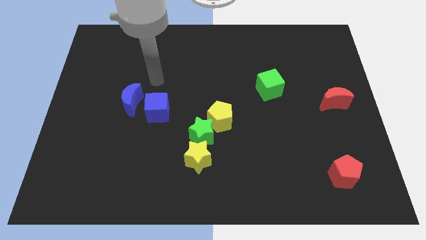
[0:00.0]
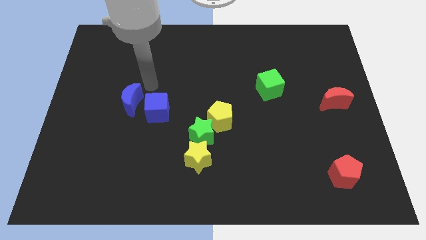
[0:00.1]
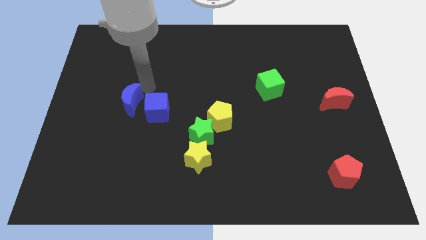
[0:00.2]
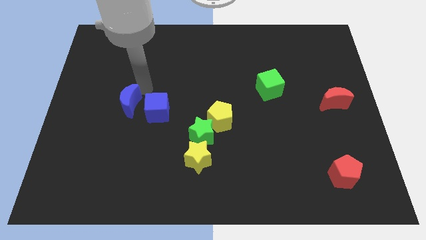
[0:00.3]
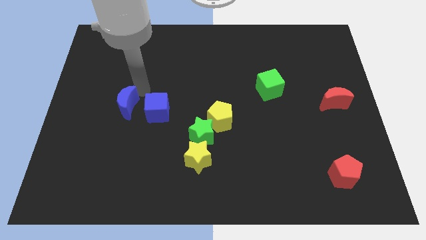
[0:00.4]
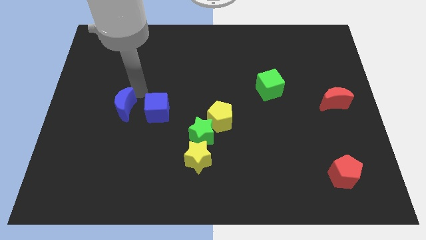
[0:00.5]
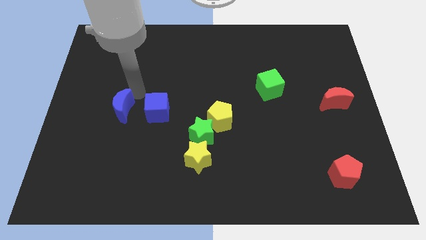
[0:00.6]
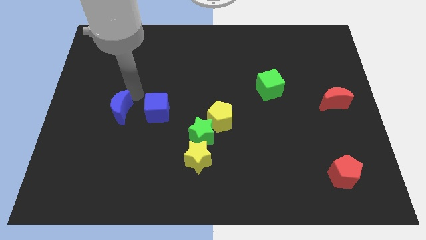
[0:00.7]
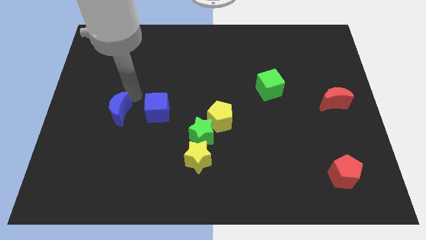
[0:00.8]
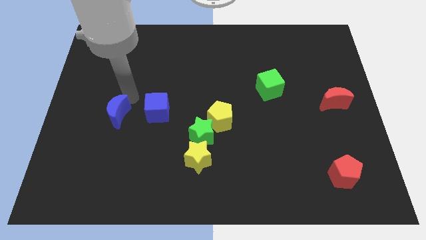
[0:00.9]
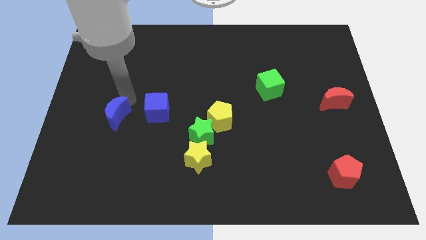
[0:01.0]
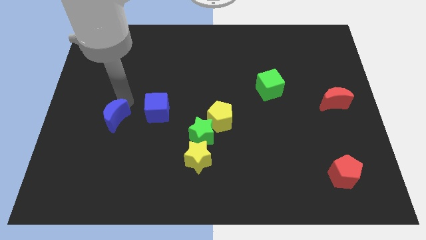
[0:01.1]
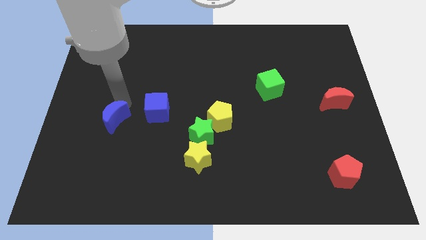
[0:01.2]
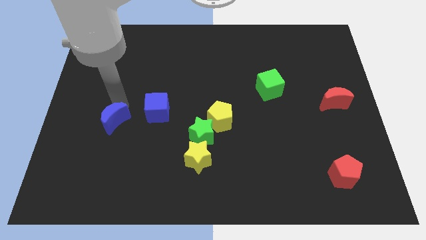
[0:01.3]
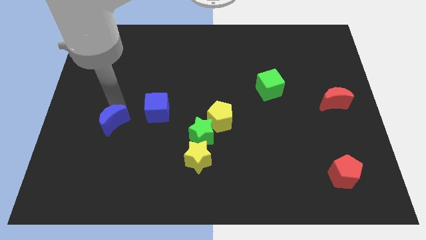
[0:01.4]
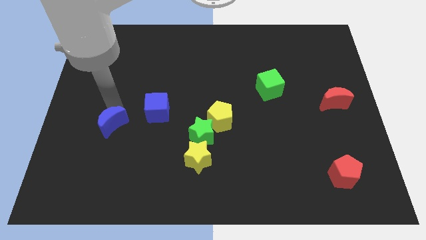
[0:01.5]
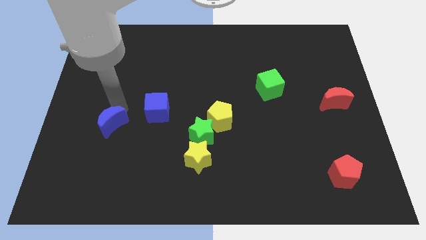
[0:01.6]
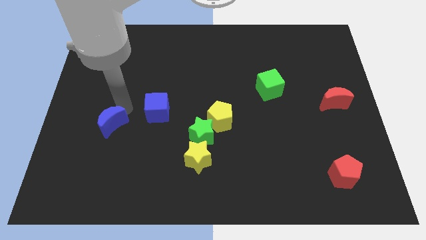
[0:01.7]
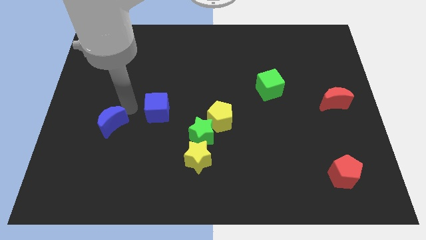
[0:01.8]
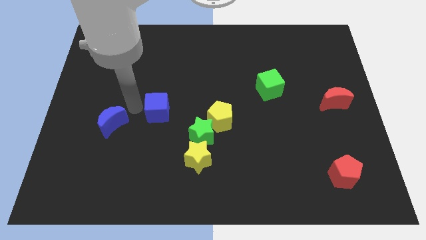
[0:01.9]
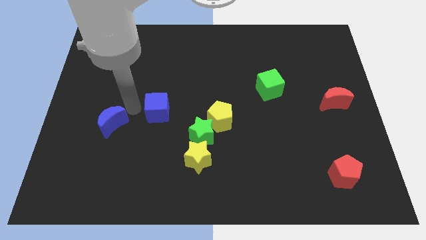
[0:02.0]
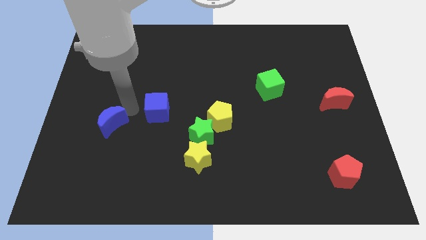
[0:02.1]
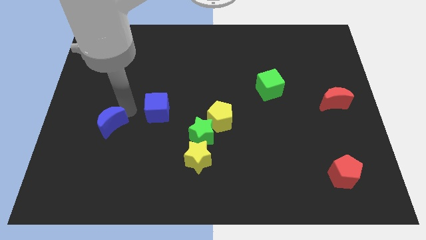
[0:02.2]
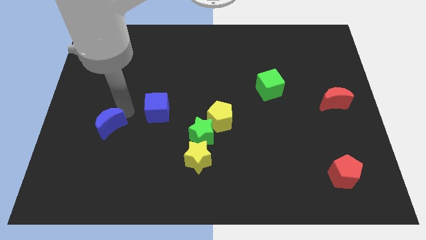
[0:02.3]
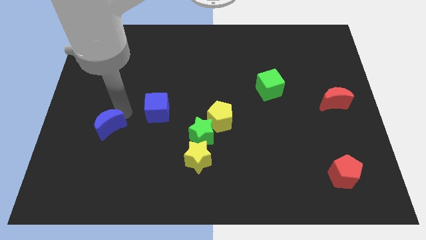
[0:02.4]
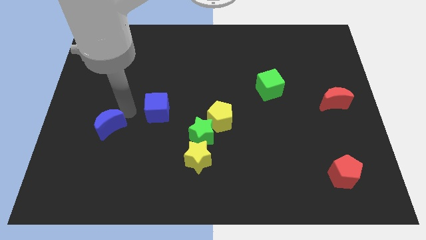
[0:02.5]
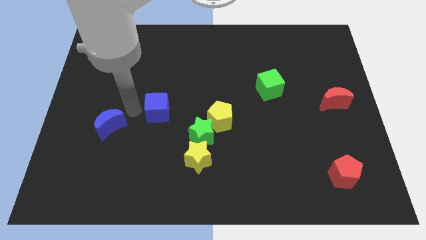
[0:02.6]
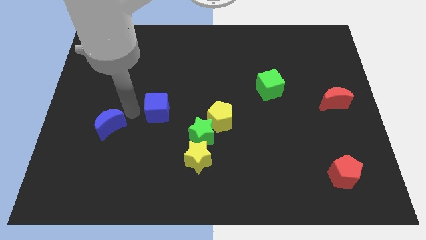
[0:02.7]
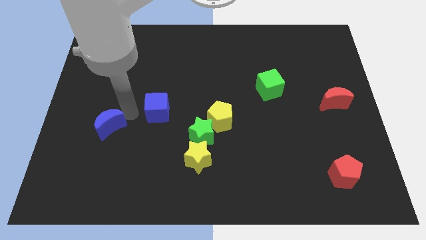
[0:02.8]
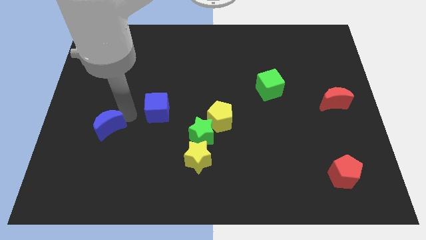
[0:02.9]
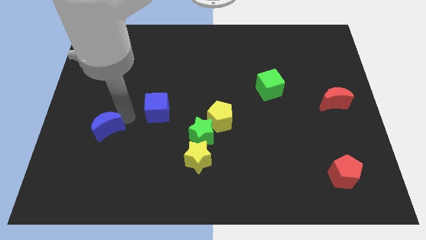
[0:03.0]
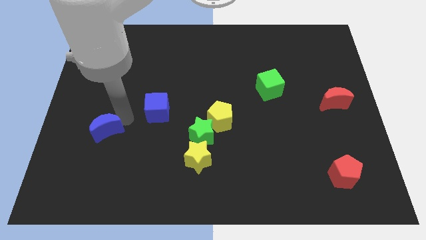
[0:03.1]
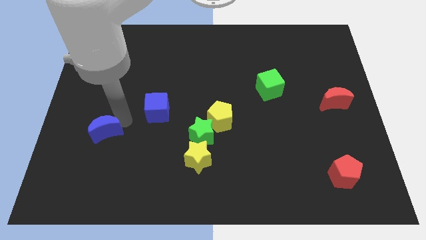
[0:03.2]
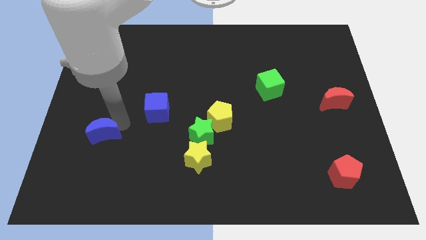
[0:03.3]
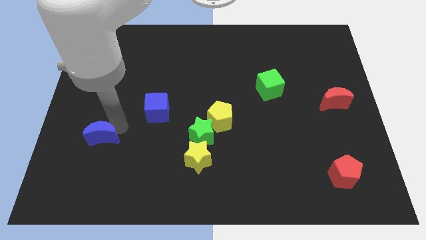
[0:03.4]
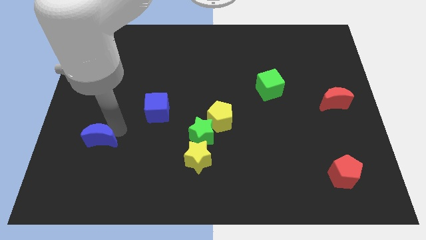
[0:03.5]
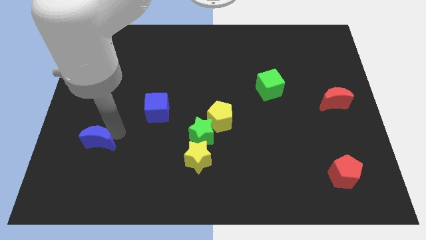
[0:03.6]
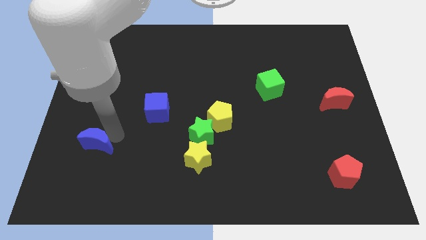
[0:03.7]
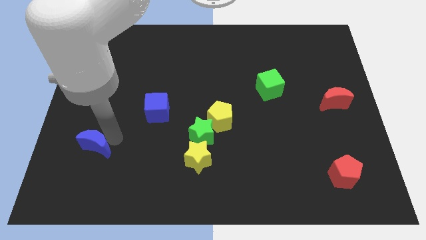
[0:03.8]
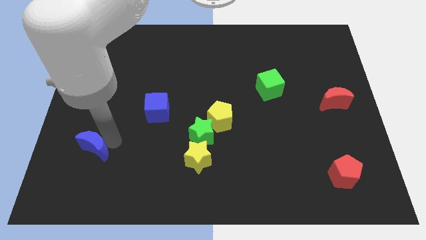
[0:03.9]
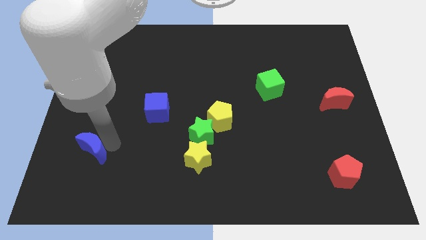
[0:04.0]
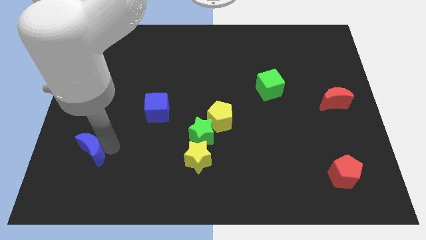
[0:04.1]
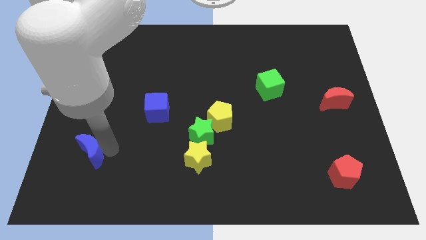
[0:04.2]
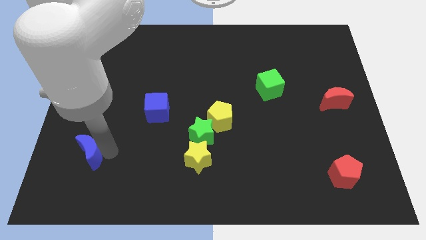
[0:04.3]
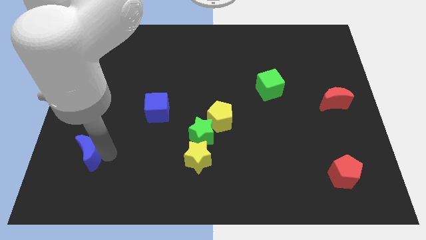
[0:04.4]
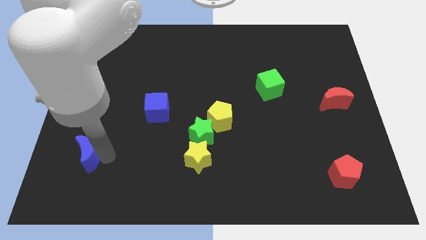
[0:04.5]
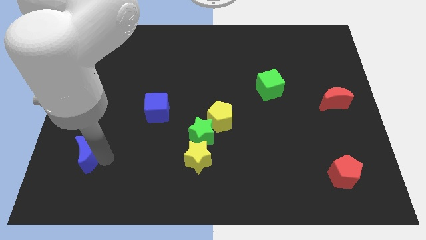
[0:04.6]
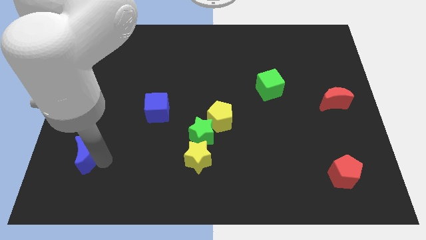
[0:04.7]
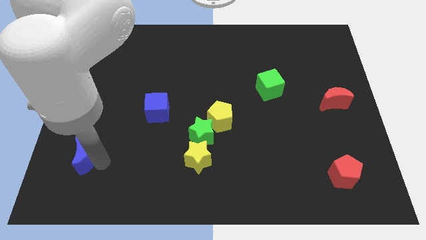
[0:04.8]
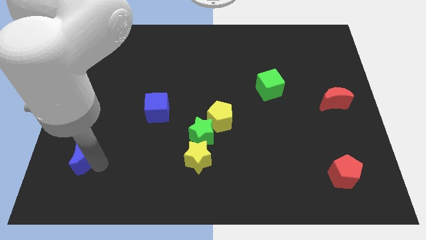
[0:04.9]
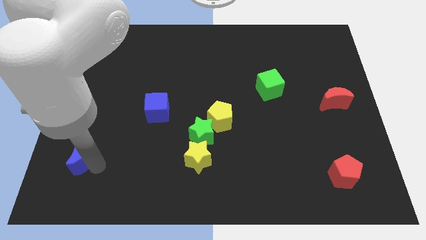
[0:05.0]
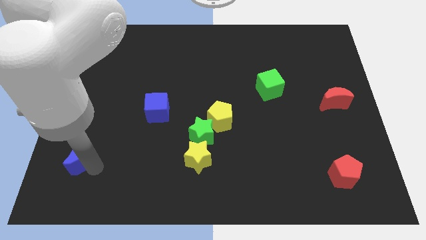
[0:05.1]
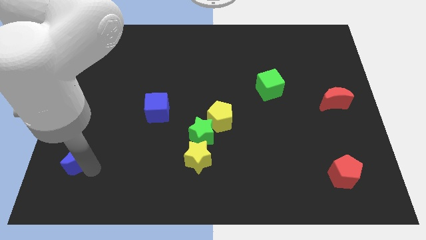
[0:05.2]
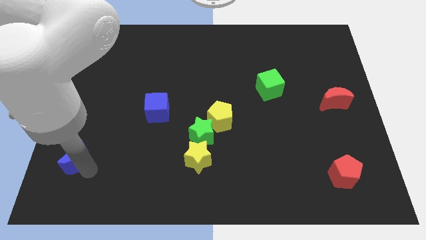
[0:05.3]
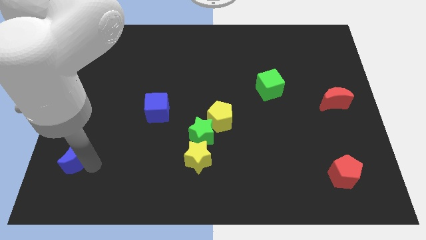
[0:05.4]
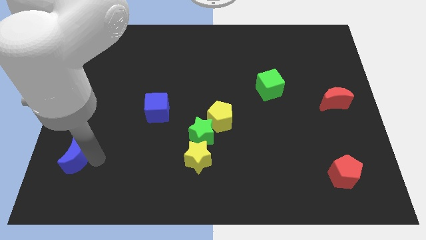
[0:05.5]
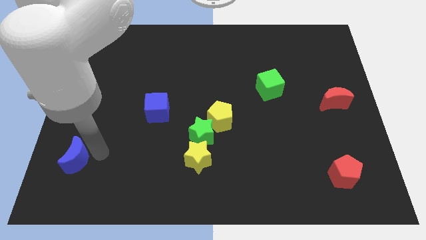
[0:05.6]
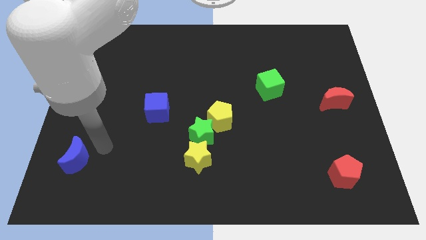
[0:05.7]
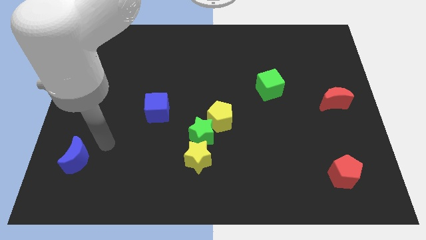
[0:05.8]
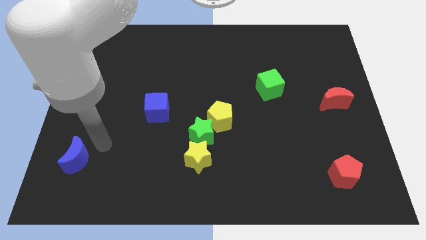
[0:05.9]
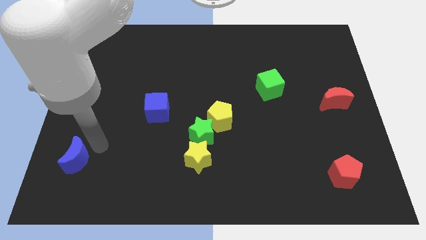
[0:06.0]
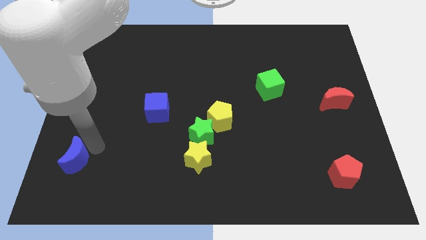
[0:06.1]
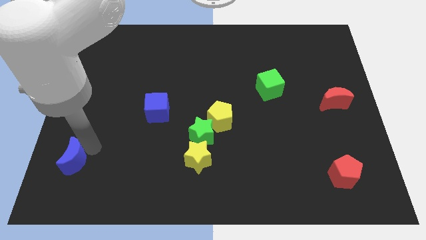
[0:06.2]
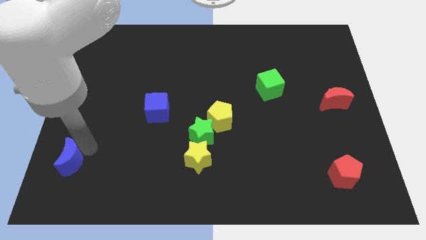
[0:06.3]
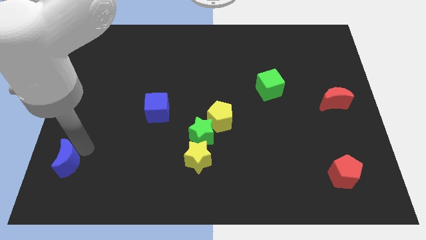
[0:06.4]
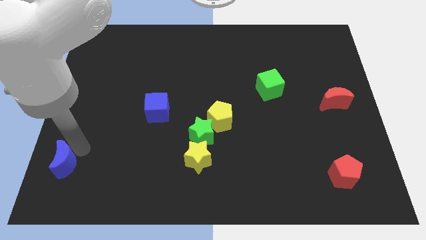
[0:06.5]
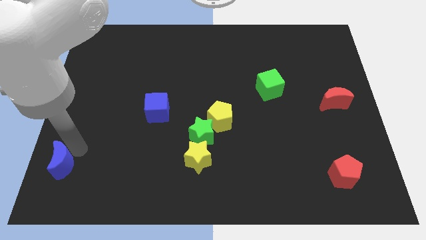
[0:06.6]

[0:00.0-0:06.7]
put the blue moon to the bottom left corner
